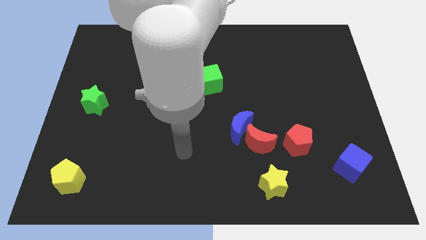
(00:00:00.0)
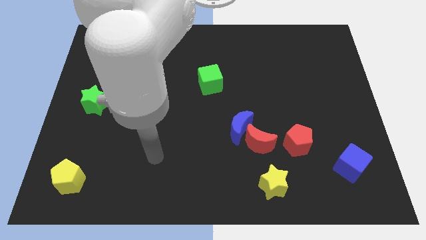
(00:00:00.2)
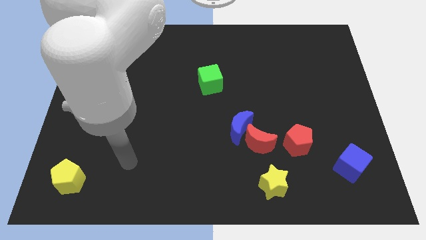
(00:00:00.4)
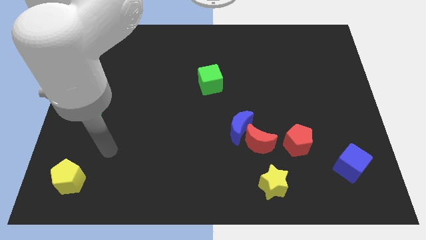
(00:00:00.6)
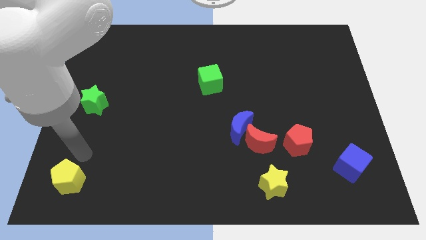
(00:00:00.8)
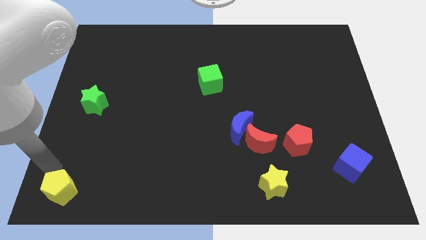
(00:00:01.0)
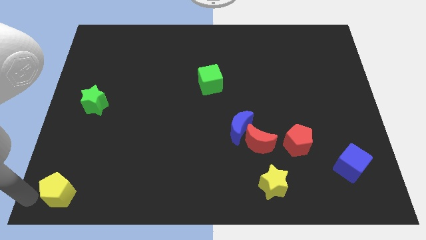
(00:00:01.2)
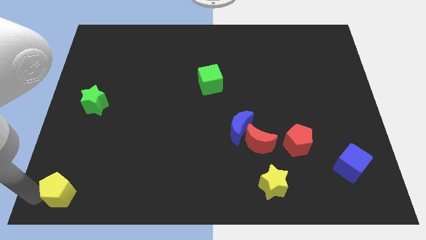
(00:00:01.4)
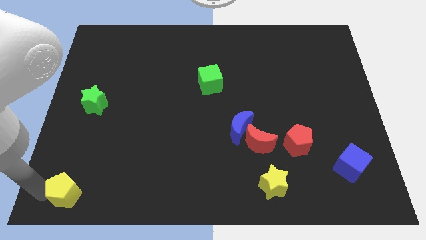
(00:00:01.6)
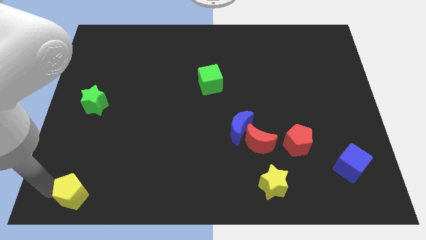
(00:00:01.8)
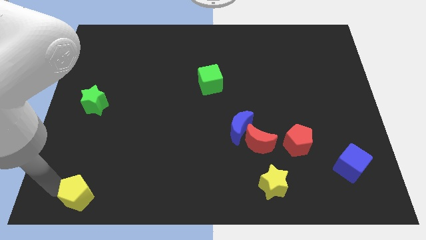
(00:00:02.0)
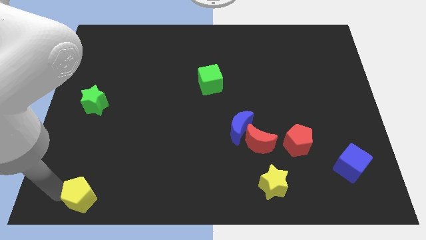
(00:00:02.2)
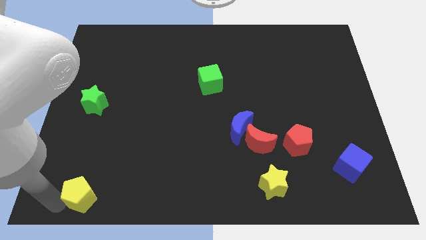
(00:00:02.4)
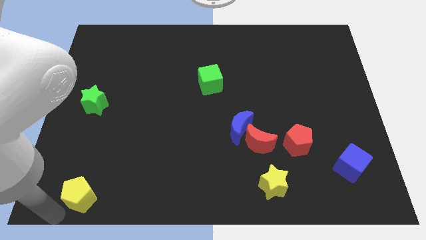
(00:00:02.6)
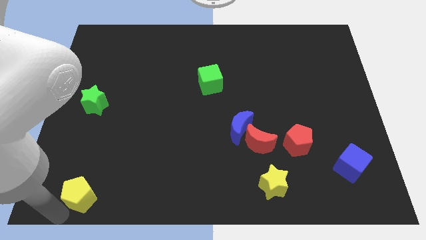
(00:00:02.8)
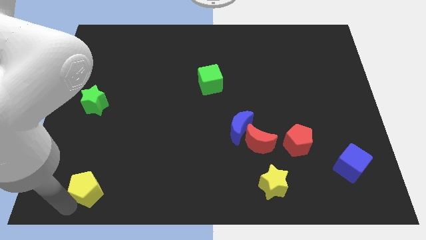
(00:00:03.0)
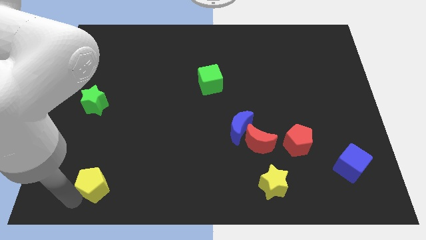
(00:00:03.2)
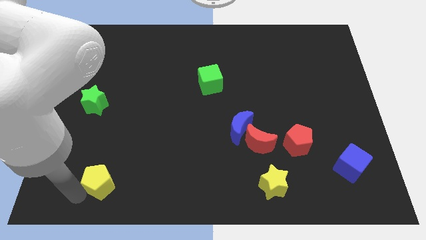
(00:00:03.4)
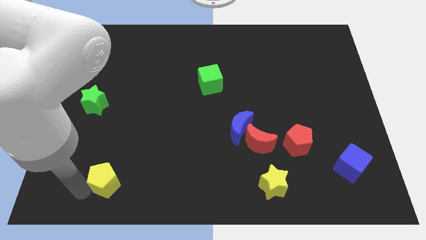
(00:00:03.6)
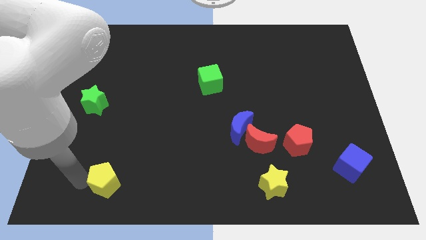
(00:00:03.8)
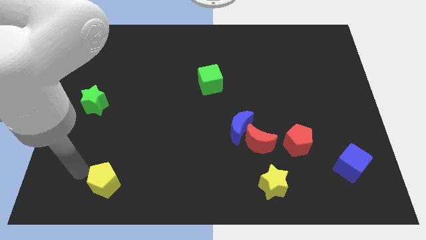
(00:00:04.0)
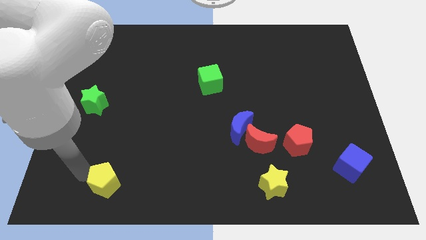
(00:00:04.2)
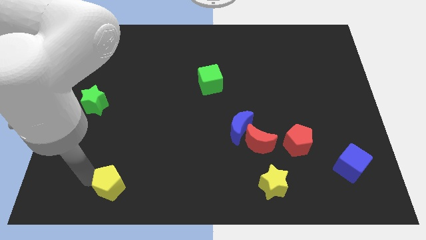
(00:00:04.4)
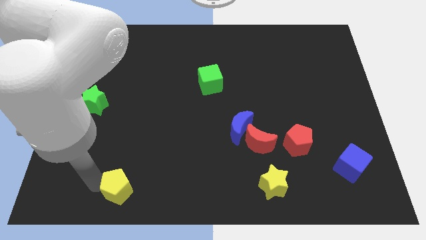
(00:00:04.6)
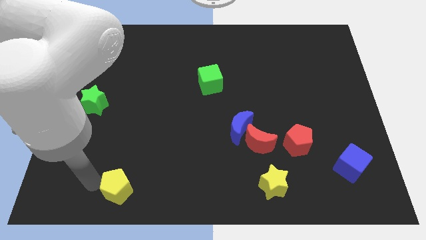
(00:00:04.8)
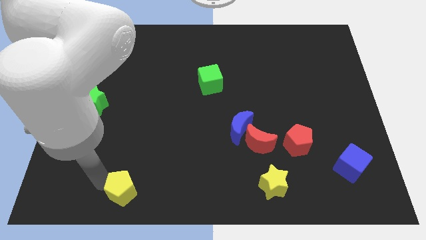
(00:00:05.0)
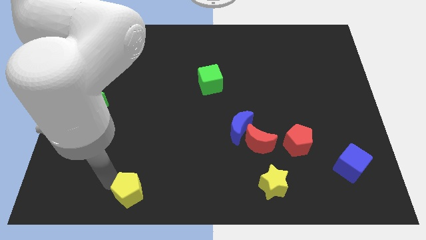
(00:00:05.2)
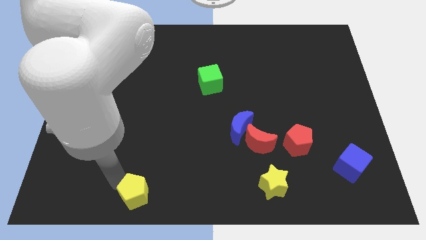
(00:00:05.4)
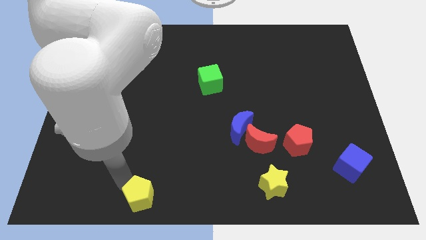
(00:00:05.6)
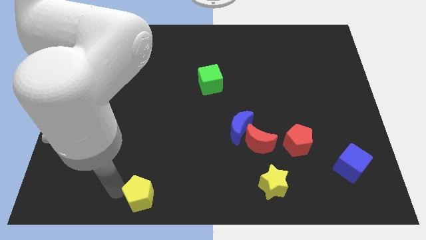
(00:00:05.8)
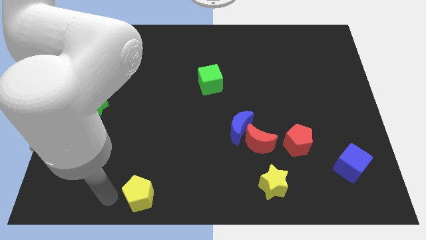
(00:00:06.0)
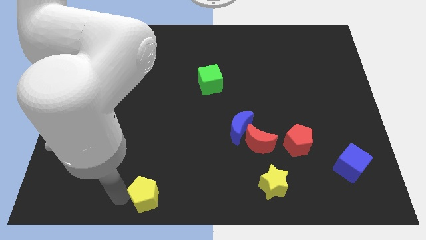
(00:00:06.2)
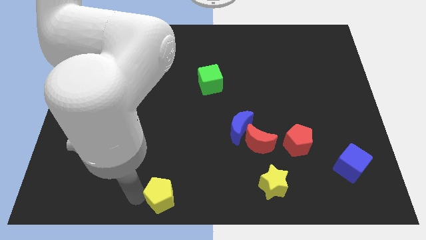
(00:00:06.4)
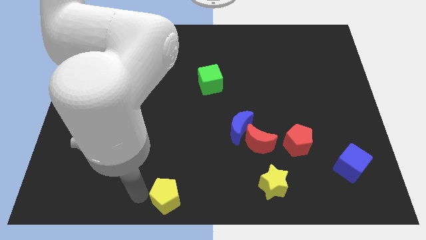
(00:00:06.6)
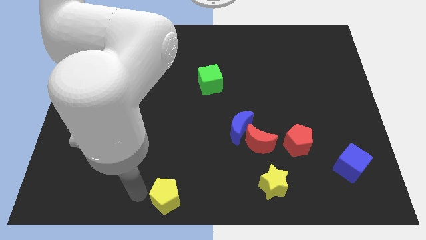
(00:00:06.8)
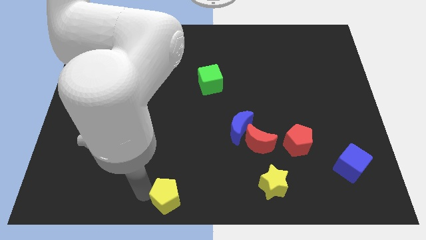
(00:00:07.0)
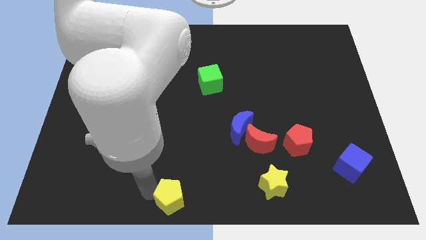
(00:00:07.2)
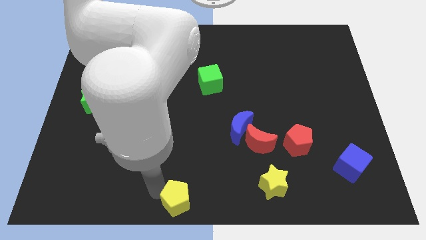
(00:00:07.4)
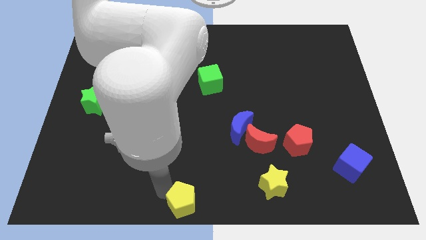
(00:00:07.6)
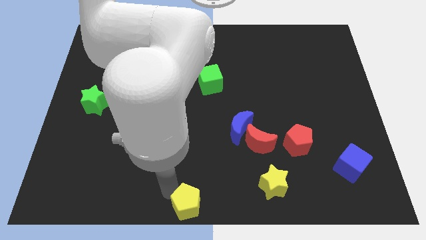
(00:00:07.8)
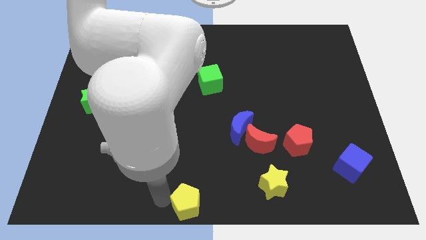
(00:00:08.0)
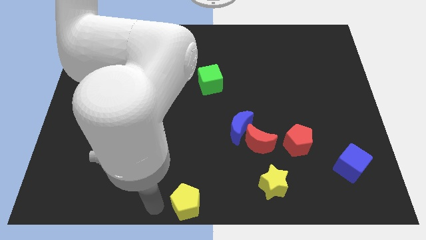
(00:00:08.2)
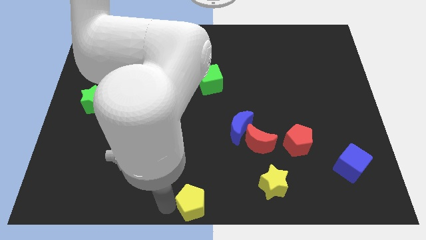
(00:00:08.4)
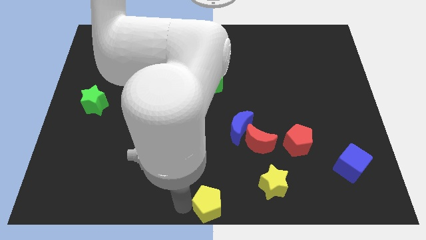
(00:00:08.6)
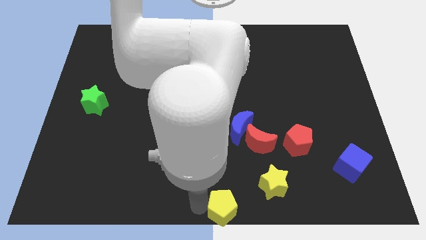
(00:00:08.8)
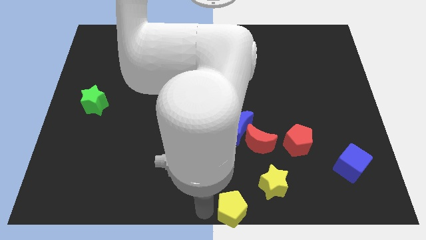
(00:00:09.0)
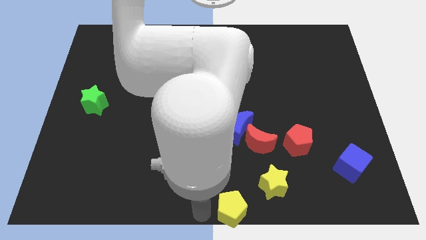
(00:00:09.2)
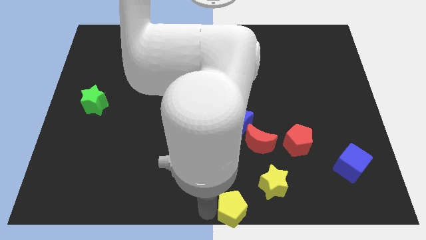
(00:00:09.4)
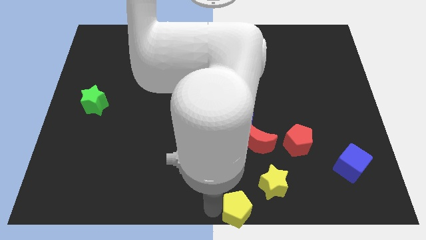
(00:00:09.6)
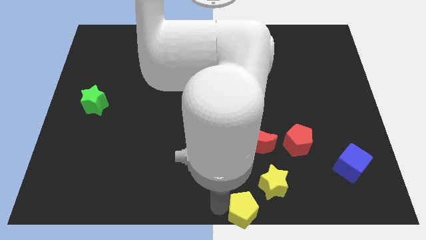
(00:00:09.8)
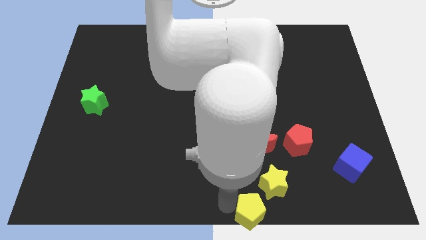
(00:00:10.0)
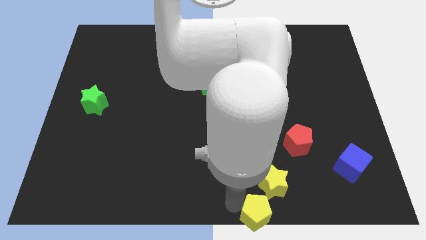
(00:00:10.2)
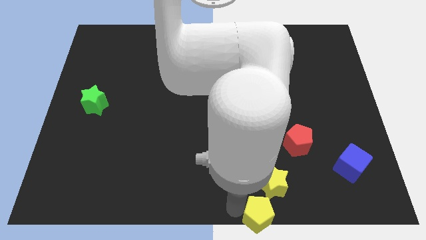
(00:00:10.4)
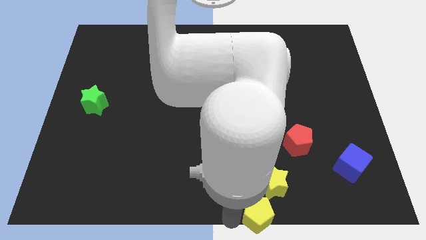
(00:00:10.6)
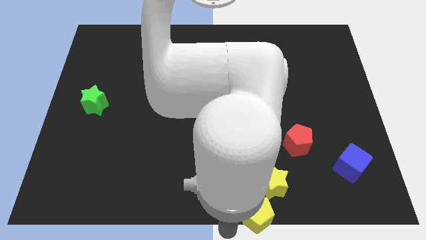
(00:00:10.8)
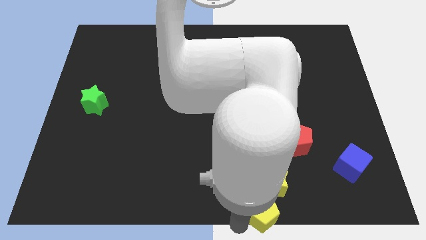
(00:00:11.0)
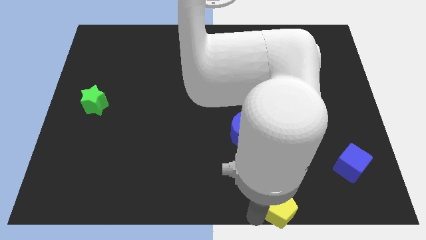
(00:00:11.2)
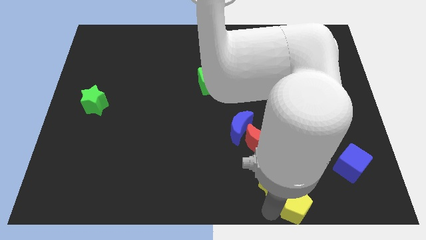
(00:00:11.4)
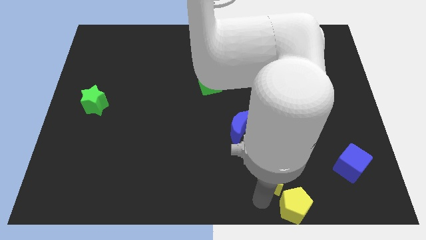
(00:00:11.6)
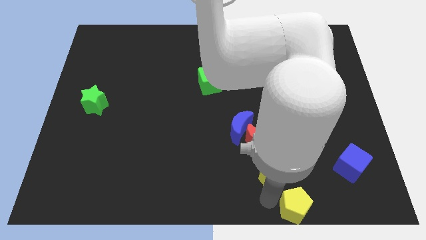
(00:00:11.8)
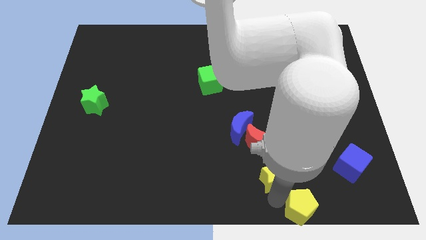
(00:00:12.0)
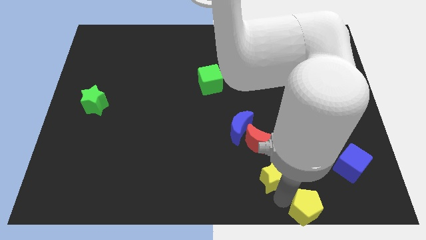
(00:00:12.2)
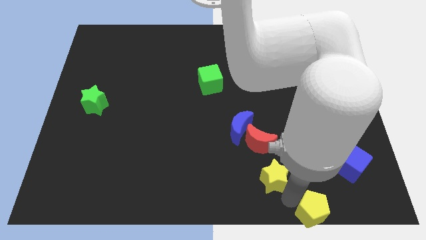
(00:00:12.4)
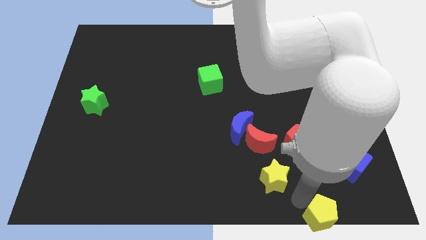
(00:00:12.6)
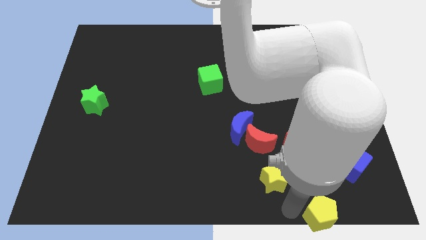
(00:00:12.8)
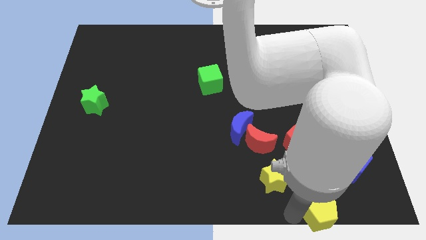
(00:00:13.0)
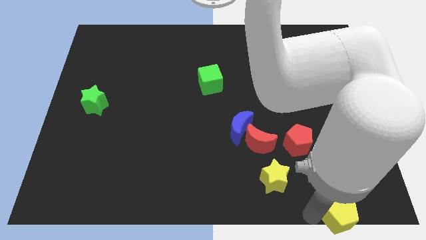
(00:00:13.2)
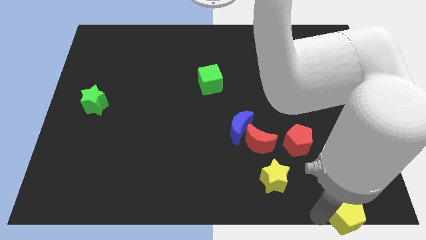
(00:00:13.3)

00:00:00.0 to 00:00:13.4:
push the yellow pentagon to the bottom right of the board
